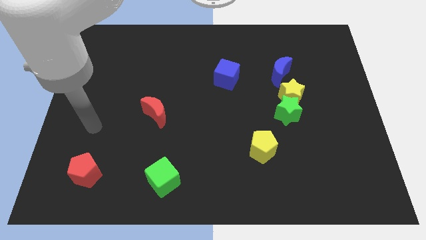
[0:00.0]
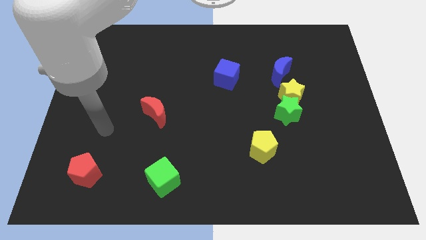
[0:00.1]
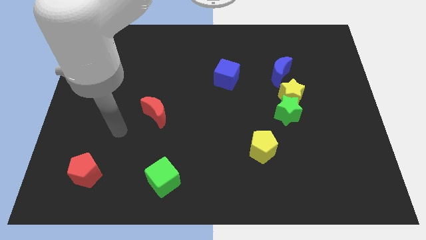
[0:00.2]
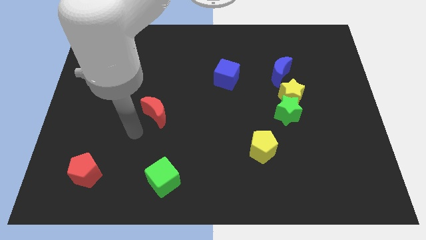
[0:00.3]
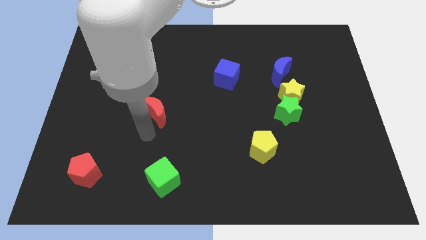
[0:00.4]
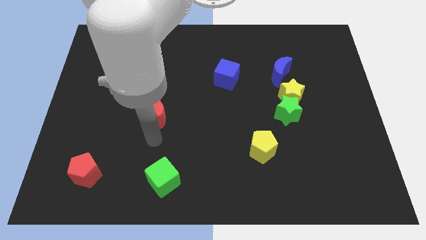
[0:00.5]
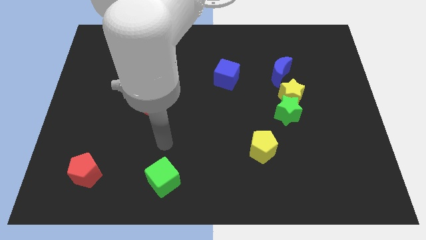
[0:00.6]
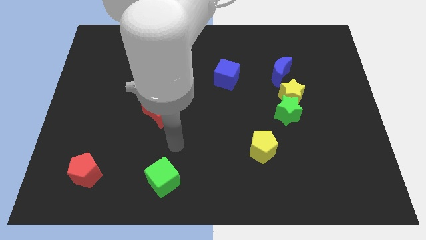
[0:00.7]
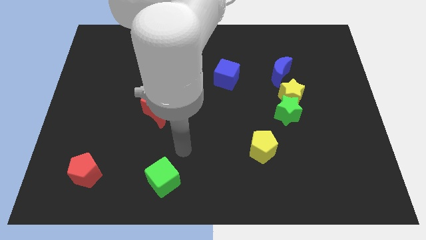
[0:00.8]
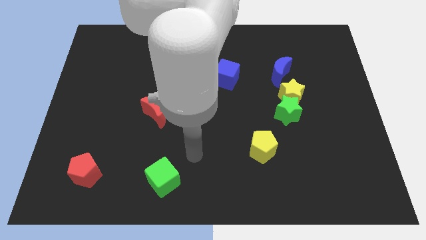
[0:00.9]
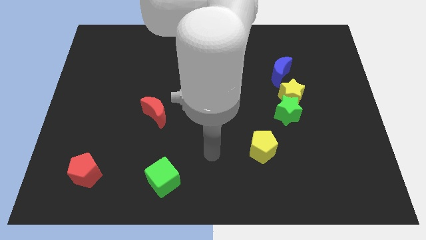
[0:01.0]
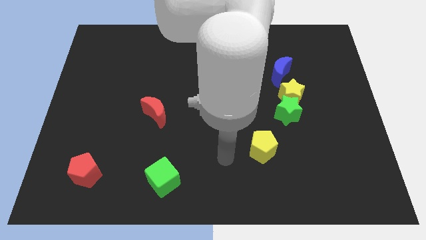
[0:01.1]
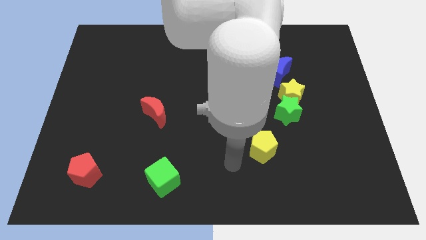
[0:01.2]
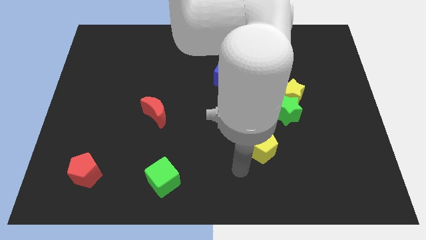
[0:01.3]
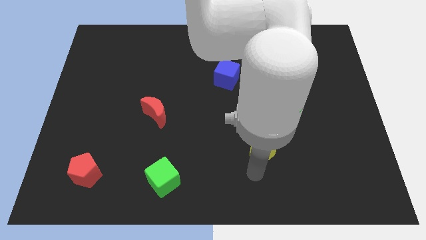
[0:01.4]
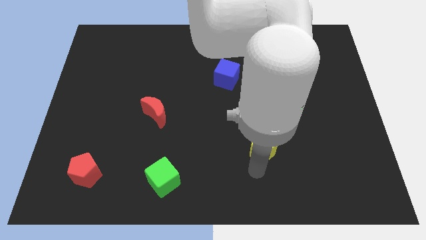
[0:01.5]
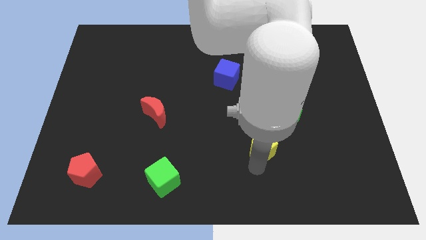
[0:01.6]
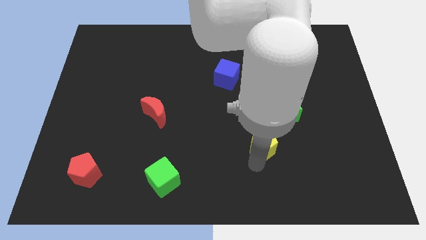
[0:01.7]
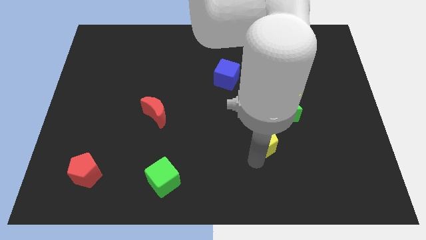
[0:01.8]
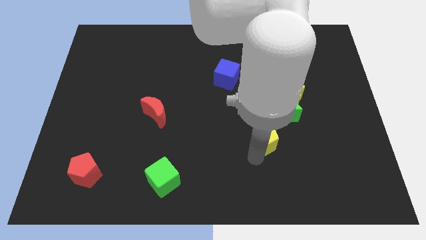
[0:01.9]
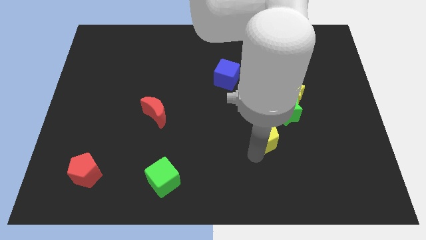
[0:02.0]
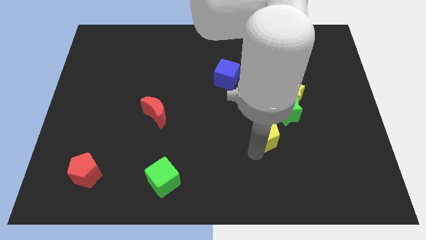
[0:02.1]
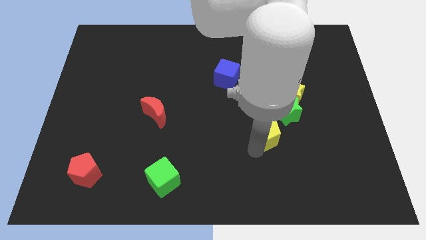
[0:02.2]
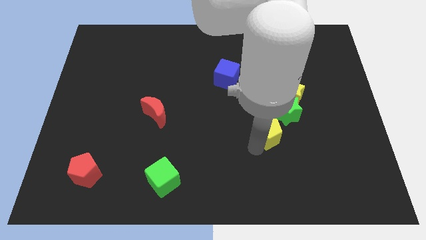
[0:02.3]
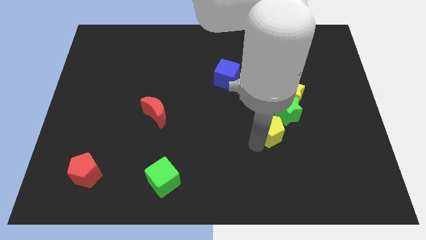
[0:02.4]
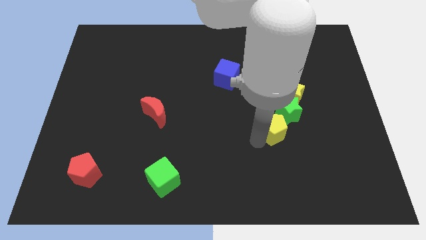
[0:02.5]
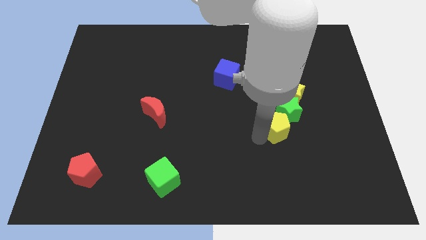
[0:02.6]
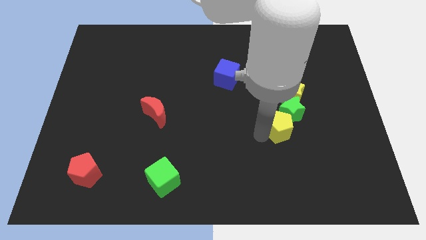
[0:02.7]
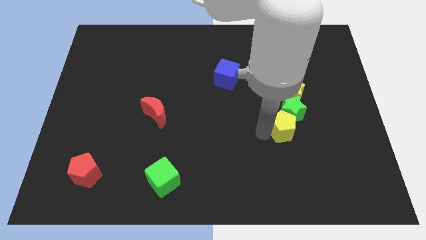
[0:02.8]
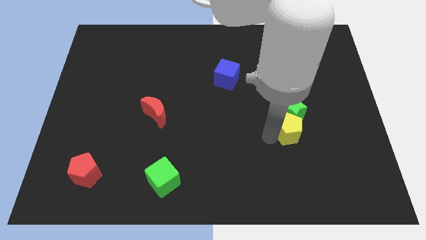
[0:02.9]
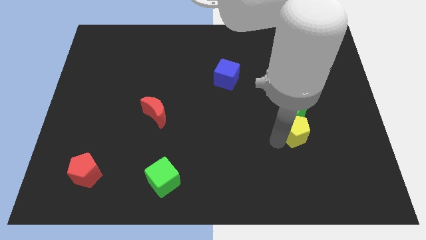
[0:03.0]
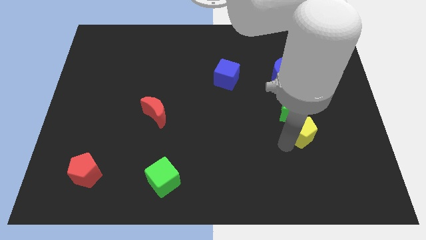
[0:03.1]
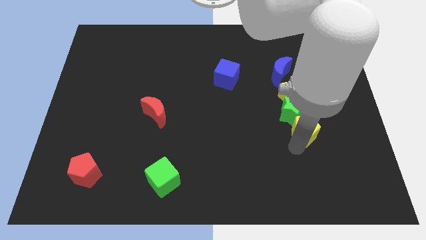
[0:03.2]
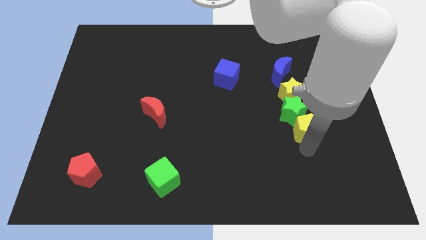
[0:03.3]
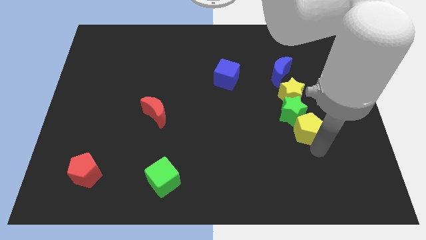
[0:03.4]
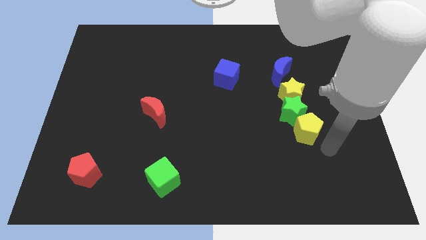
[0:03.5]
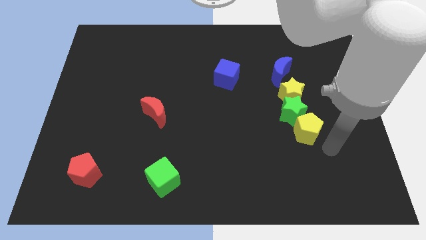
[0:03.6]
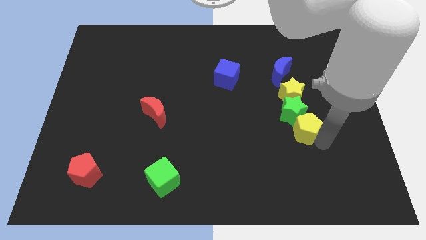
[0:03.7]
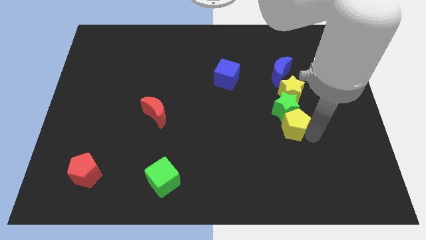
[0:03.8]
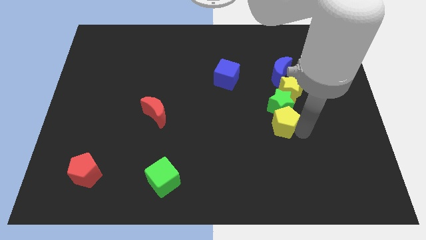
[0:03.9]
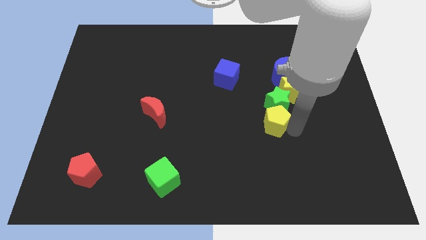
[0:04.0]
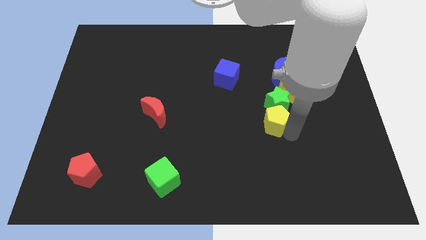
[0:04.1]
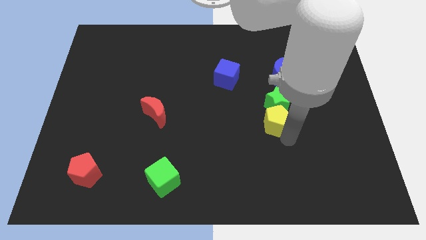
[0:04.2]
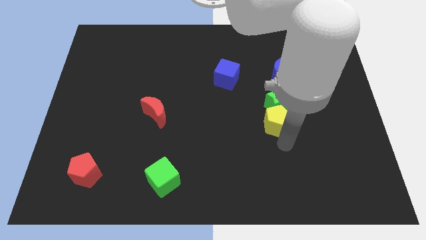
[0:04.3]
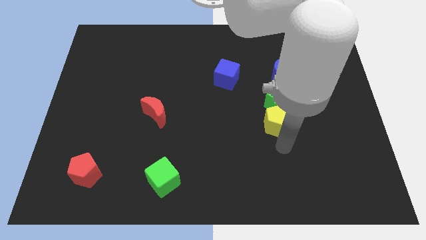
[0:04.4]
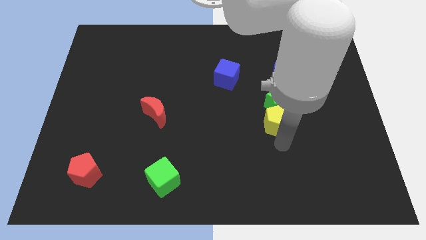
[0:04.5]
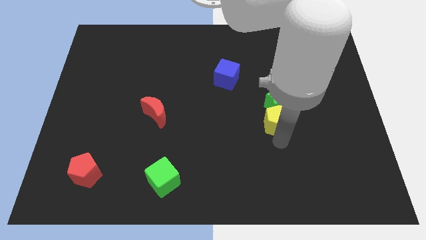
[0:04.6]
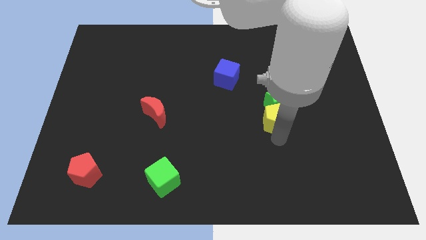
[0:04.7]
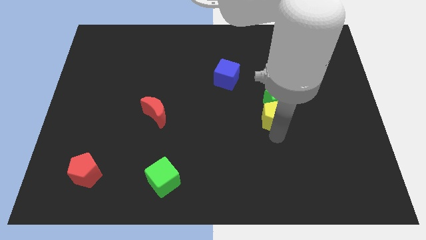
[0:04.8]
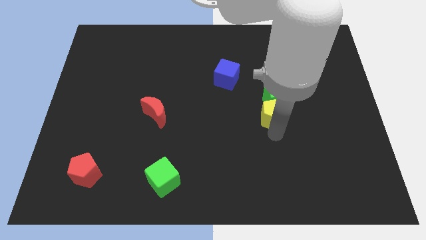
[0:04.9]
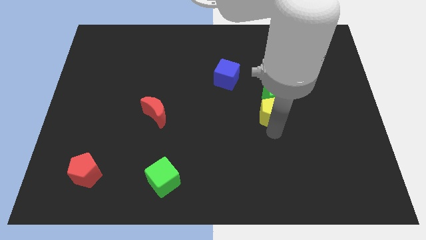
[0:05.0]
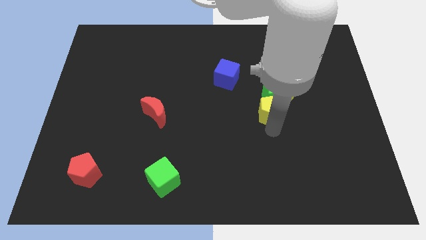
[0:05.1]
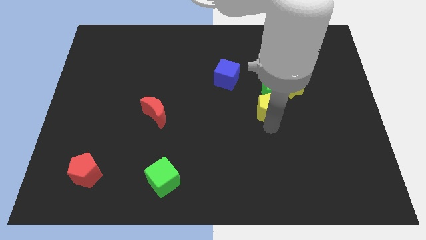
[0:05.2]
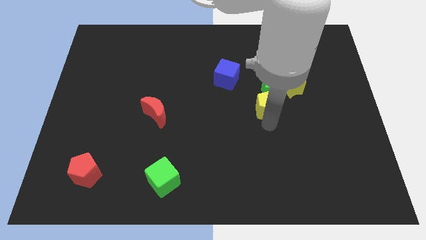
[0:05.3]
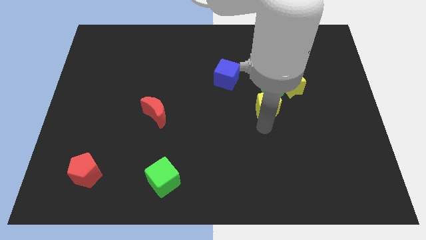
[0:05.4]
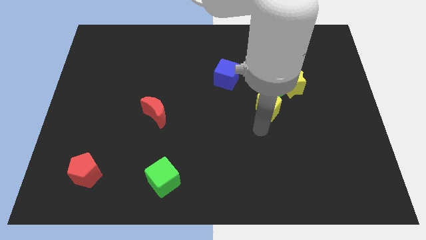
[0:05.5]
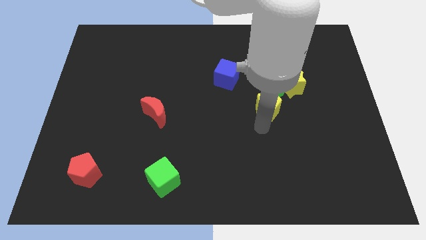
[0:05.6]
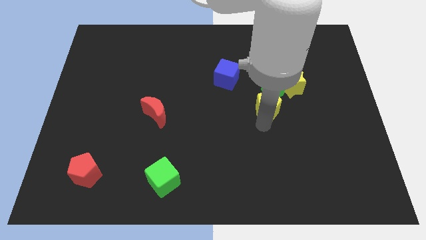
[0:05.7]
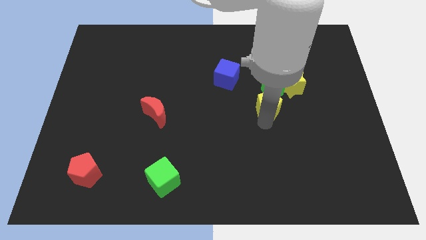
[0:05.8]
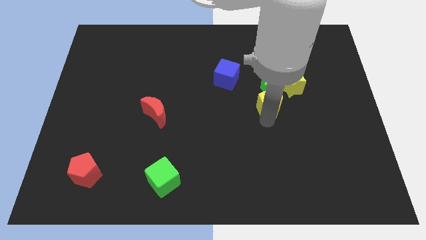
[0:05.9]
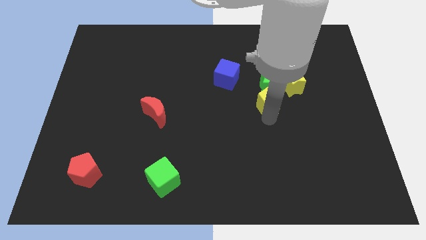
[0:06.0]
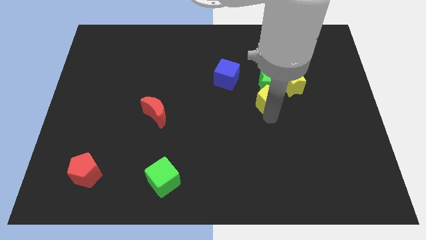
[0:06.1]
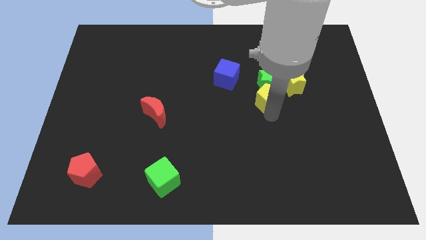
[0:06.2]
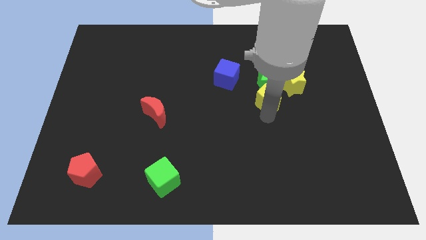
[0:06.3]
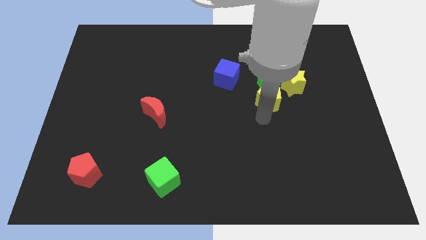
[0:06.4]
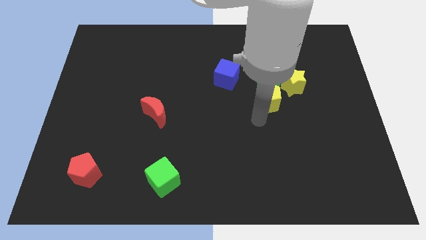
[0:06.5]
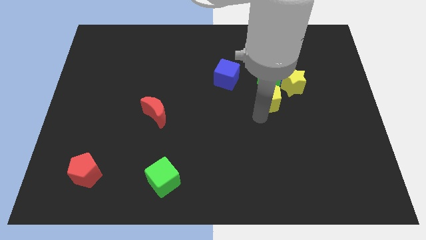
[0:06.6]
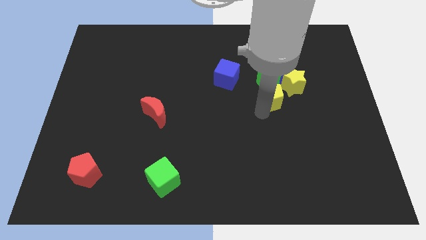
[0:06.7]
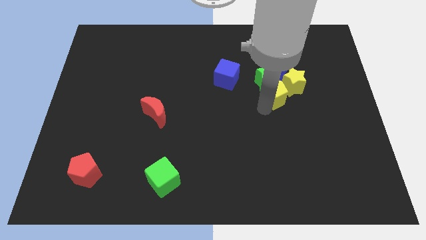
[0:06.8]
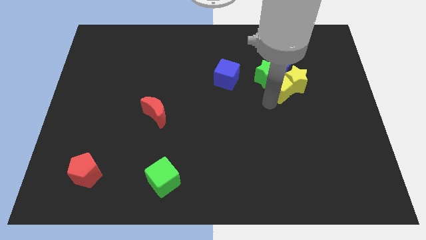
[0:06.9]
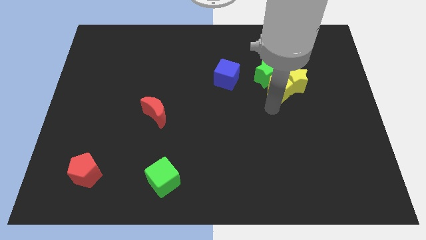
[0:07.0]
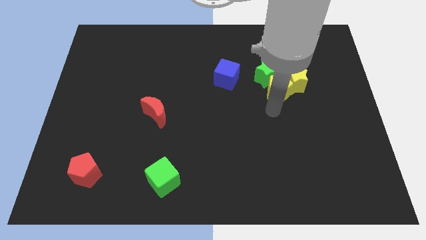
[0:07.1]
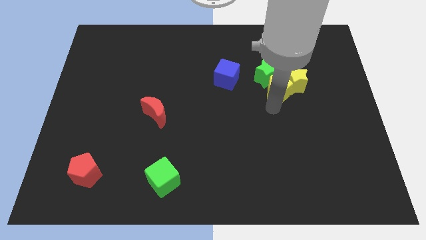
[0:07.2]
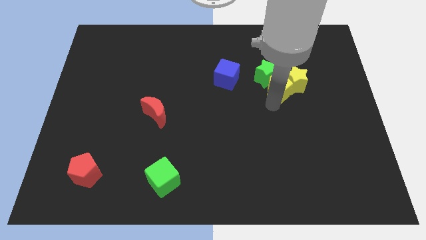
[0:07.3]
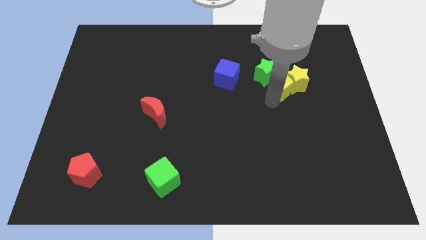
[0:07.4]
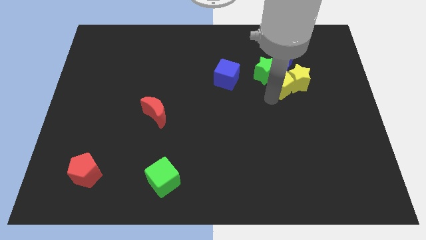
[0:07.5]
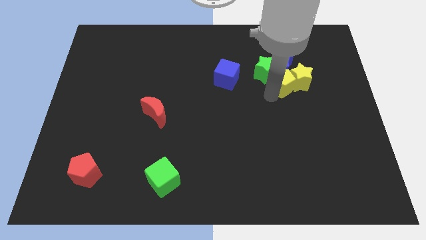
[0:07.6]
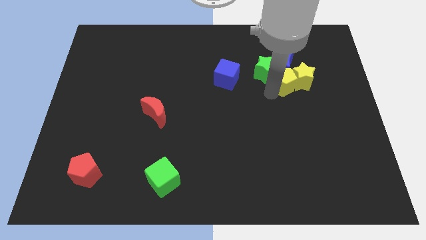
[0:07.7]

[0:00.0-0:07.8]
slide the yellow pentagon towards the blue moon
